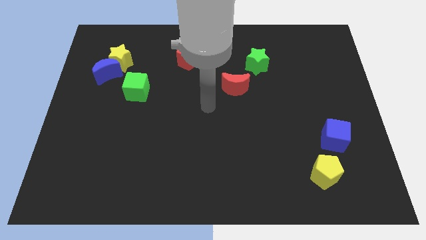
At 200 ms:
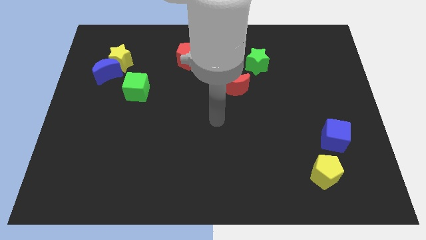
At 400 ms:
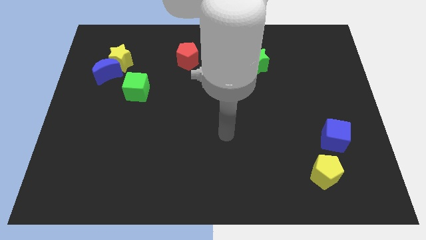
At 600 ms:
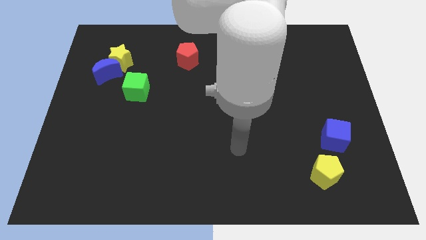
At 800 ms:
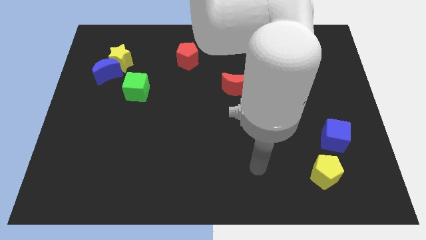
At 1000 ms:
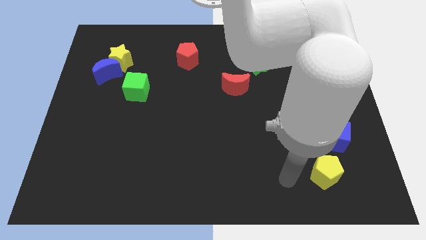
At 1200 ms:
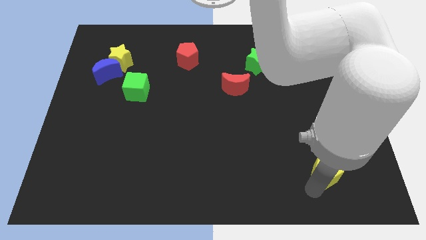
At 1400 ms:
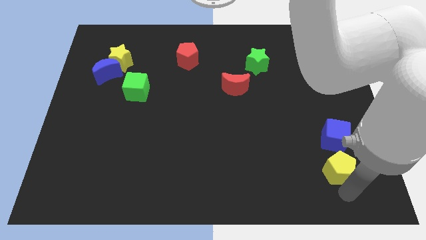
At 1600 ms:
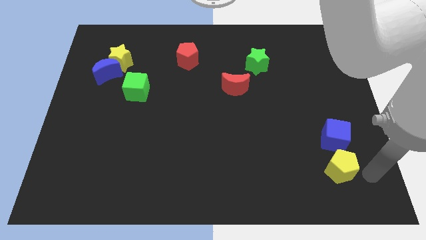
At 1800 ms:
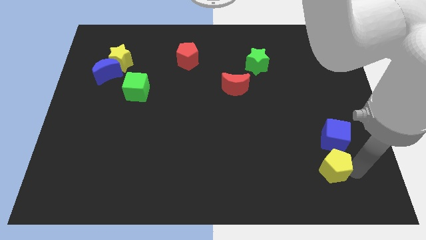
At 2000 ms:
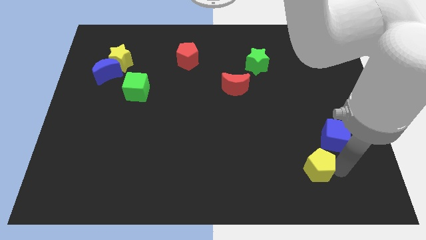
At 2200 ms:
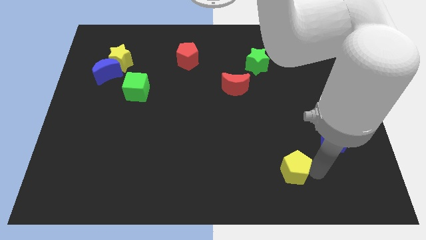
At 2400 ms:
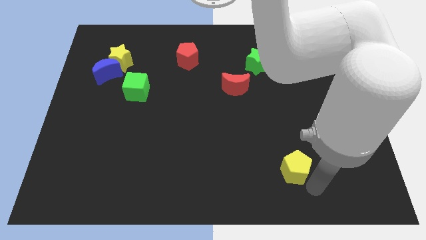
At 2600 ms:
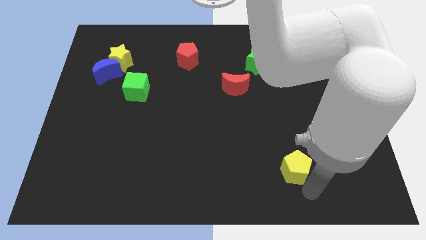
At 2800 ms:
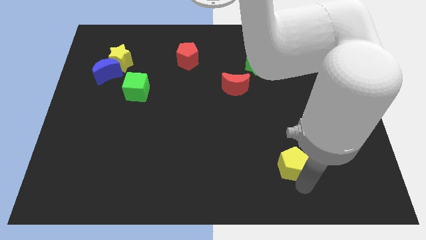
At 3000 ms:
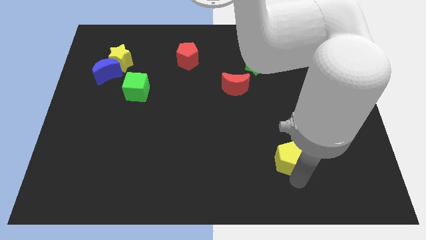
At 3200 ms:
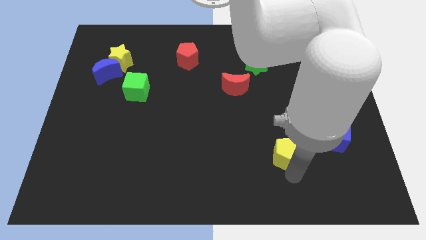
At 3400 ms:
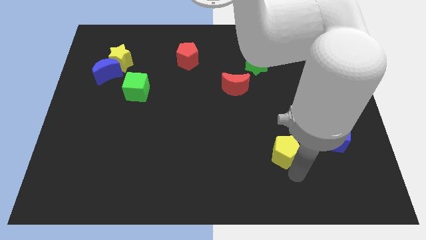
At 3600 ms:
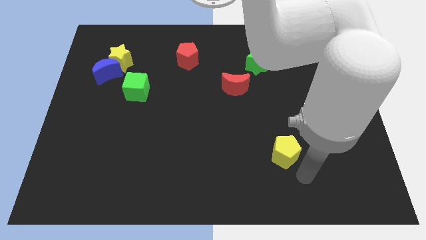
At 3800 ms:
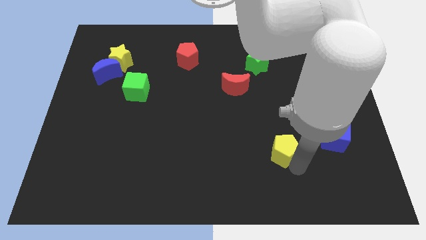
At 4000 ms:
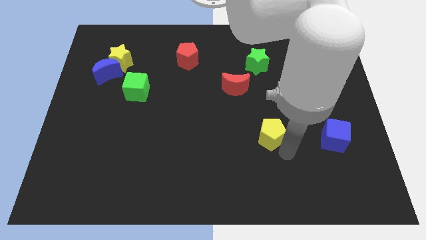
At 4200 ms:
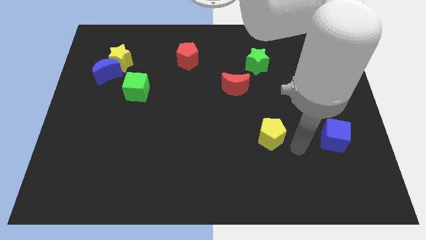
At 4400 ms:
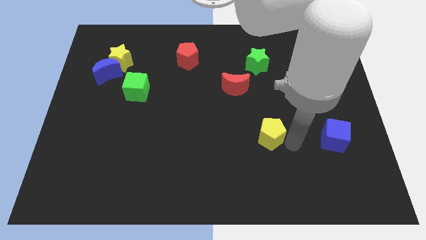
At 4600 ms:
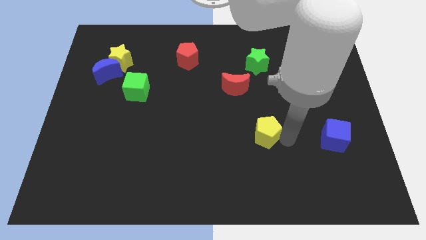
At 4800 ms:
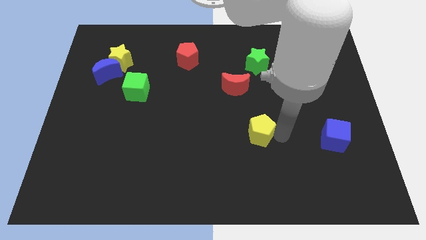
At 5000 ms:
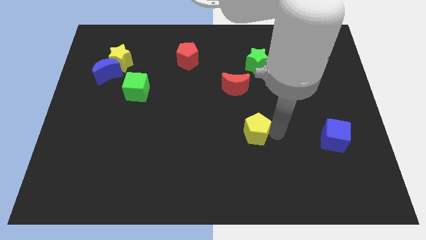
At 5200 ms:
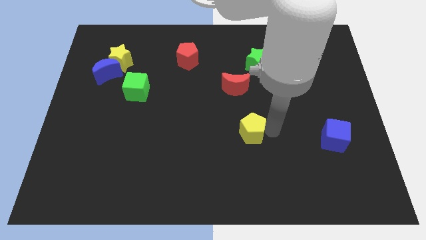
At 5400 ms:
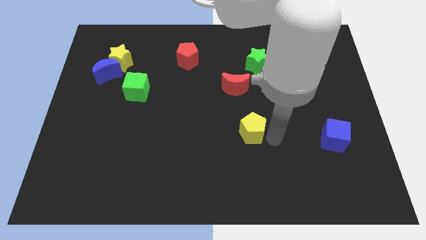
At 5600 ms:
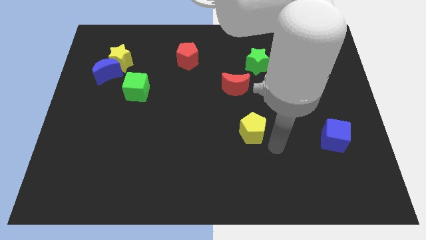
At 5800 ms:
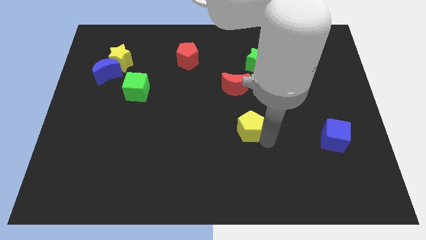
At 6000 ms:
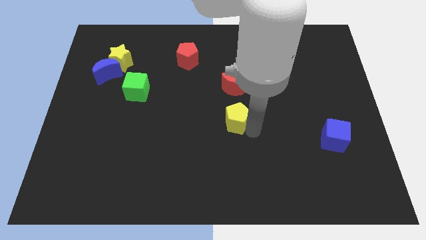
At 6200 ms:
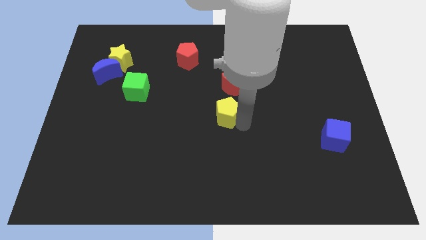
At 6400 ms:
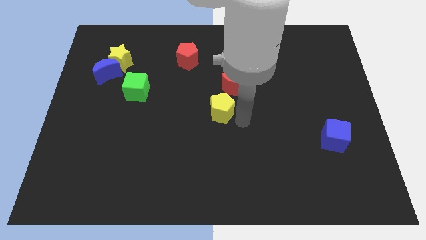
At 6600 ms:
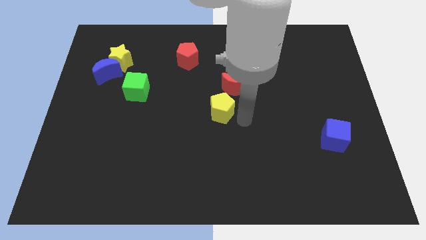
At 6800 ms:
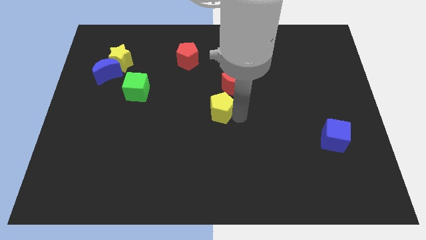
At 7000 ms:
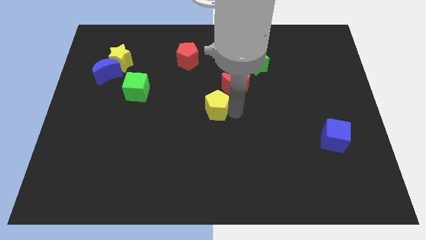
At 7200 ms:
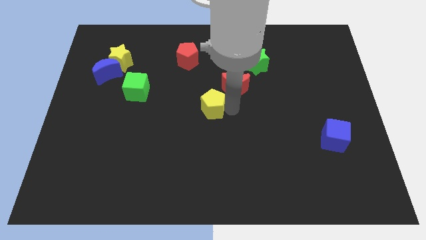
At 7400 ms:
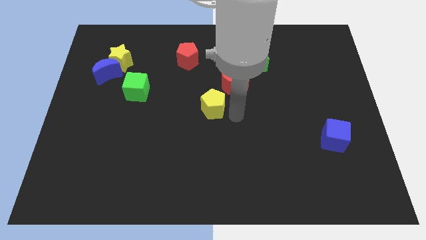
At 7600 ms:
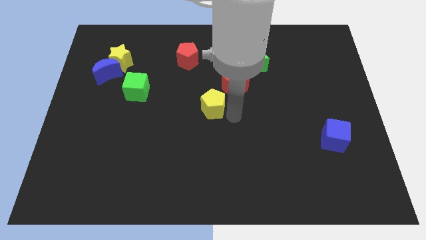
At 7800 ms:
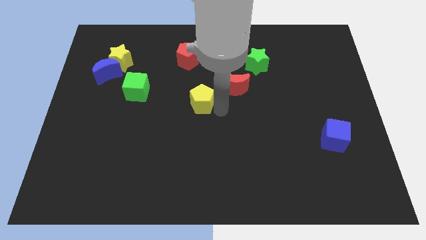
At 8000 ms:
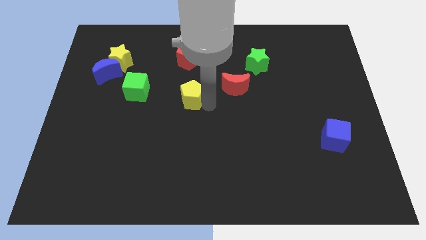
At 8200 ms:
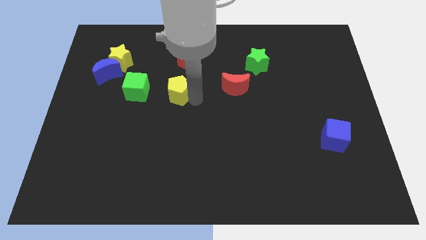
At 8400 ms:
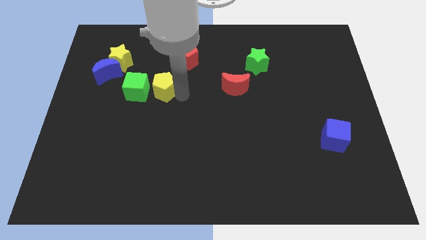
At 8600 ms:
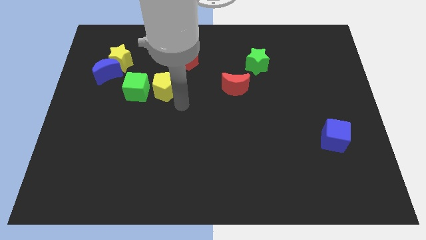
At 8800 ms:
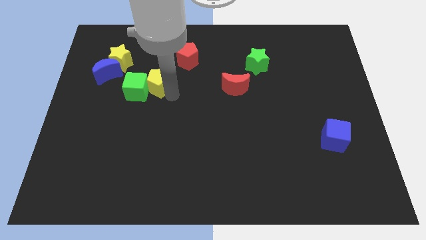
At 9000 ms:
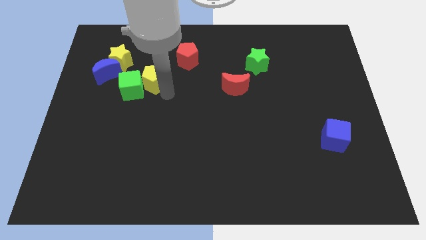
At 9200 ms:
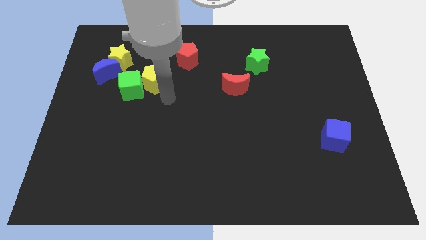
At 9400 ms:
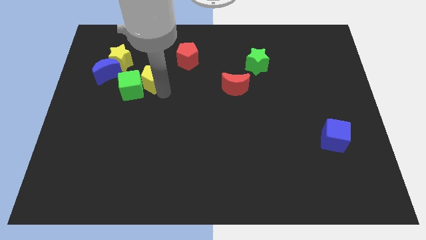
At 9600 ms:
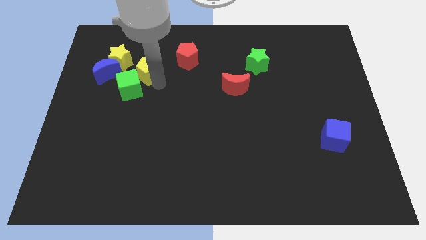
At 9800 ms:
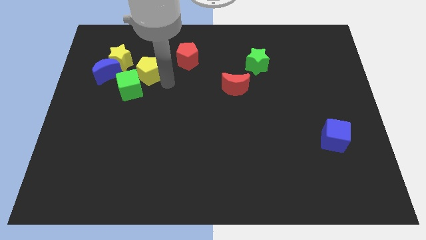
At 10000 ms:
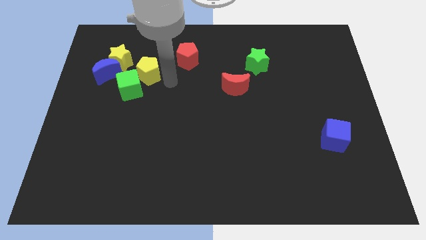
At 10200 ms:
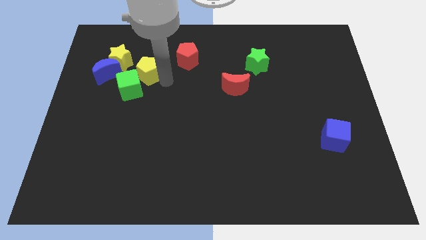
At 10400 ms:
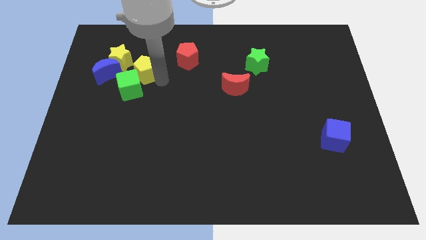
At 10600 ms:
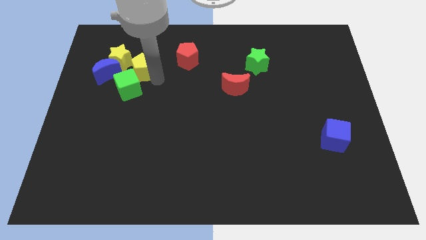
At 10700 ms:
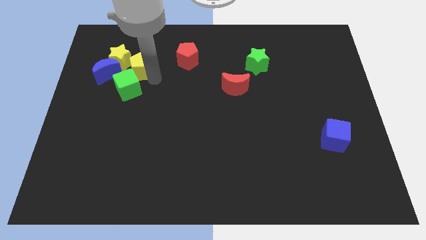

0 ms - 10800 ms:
move the yellow pentagon towards the yellow star

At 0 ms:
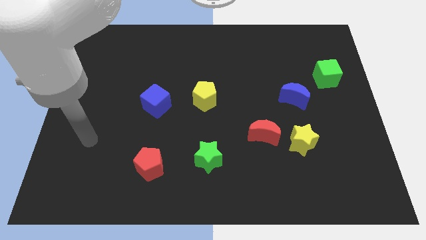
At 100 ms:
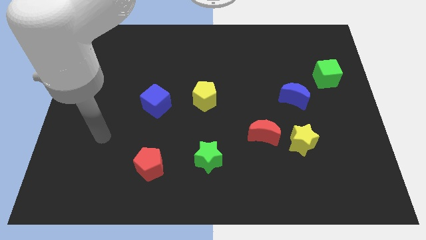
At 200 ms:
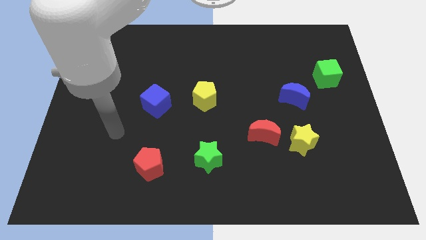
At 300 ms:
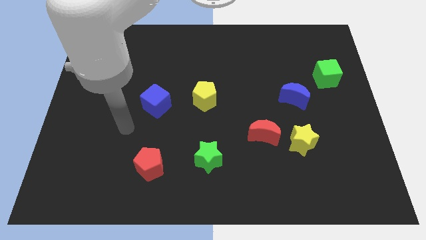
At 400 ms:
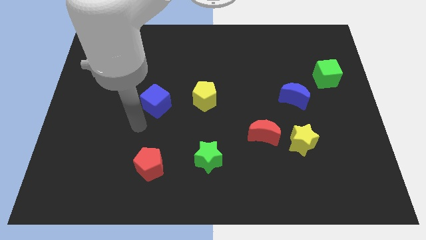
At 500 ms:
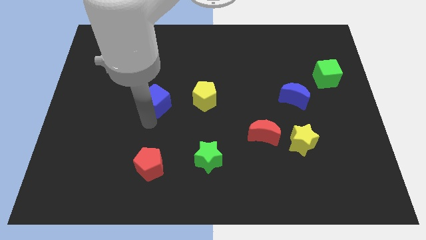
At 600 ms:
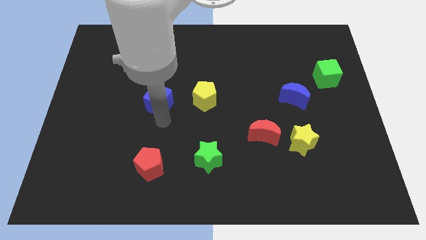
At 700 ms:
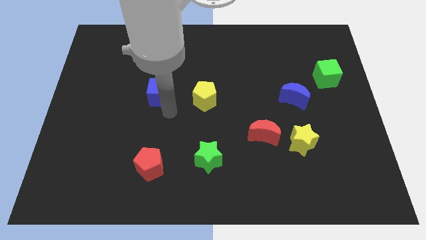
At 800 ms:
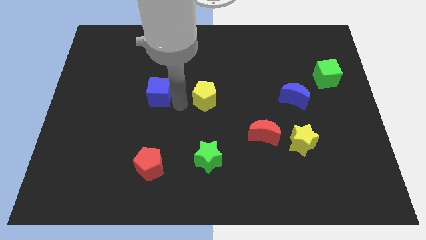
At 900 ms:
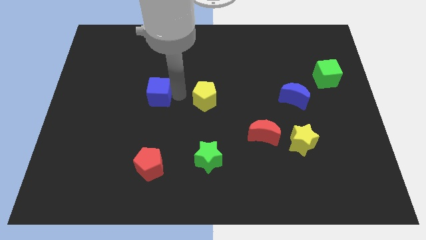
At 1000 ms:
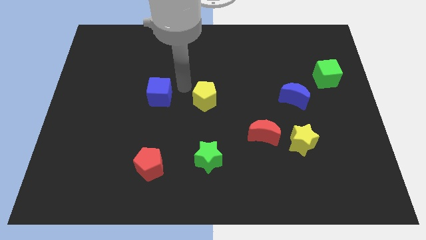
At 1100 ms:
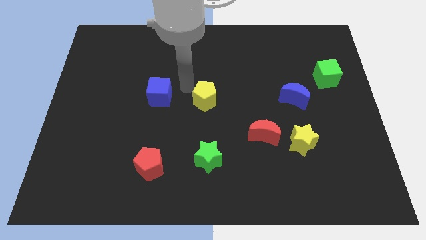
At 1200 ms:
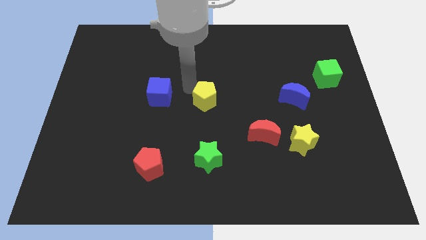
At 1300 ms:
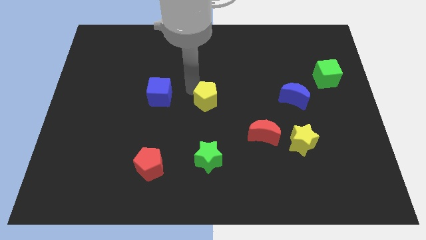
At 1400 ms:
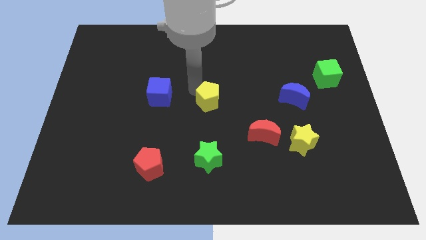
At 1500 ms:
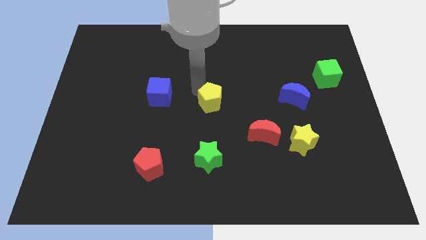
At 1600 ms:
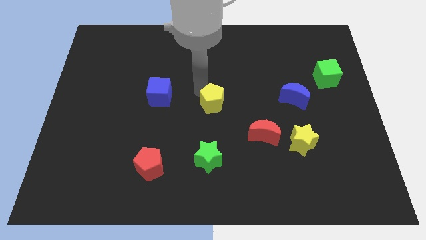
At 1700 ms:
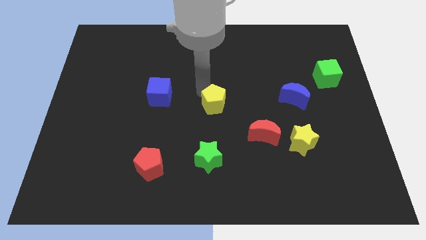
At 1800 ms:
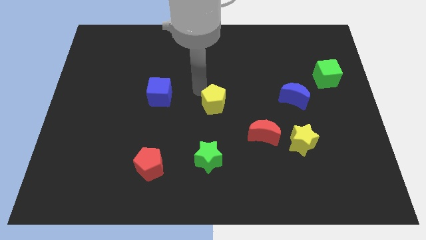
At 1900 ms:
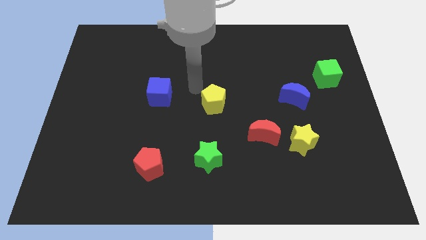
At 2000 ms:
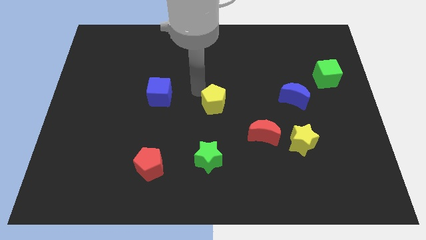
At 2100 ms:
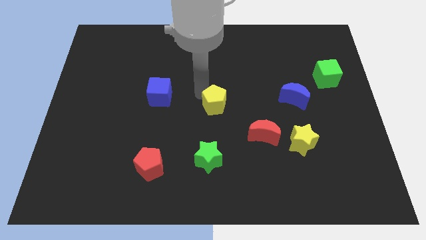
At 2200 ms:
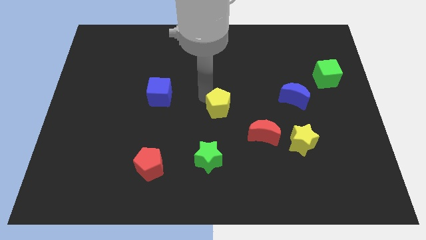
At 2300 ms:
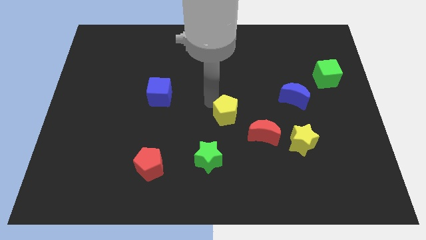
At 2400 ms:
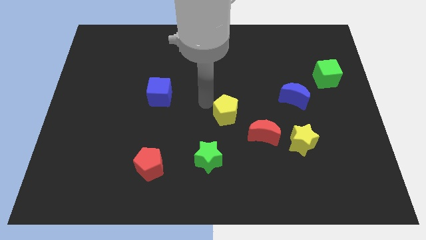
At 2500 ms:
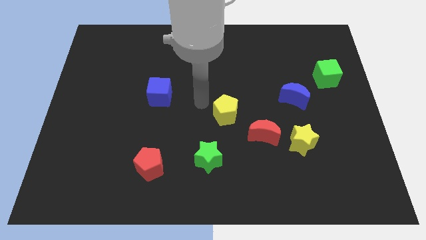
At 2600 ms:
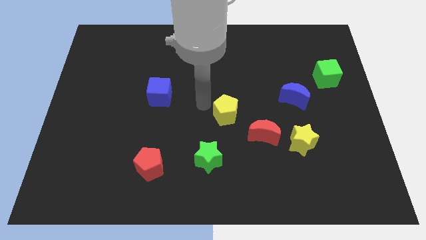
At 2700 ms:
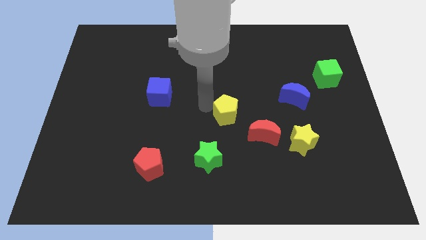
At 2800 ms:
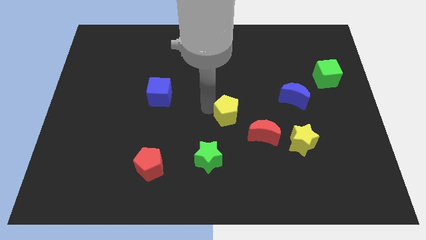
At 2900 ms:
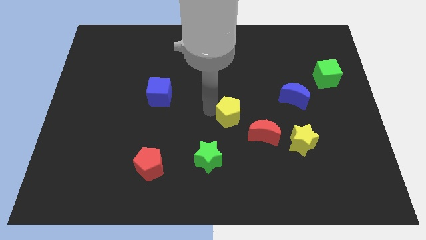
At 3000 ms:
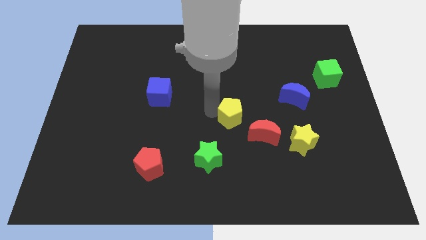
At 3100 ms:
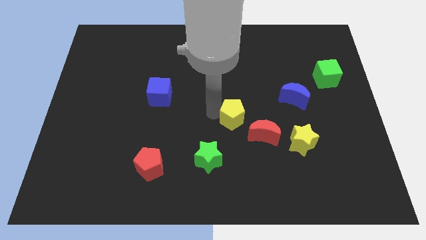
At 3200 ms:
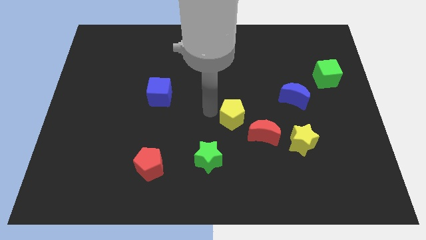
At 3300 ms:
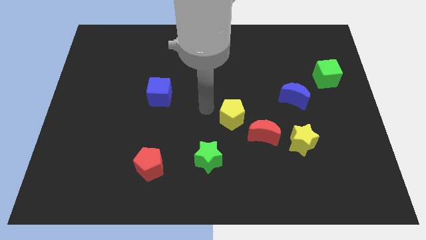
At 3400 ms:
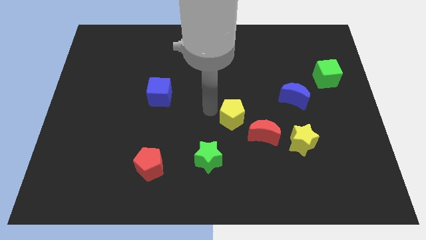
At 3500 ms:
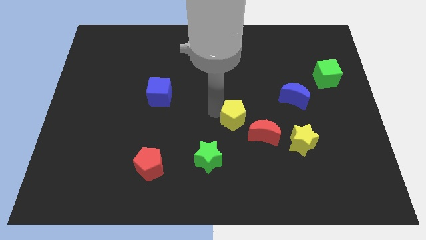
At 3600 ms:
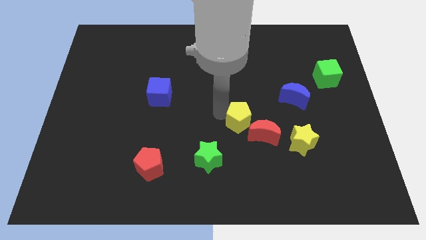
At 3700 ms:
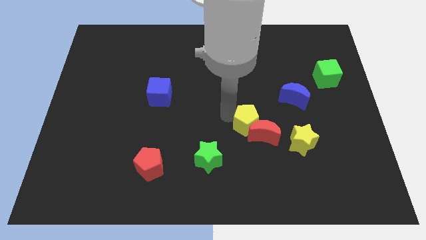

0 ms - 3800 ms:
move the yellow pentagon close to the red moon
